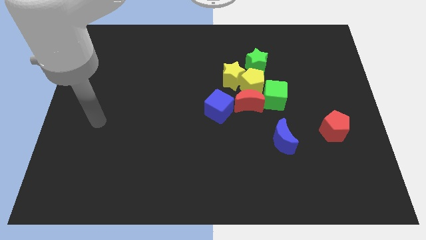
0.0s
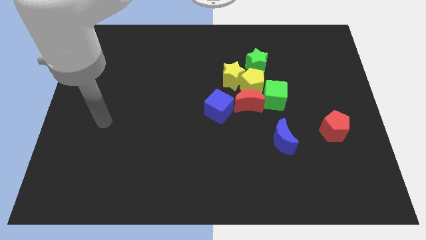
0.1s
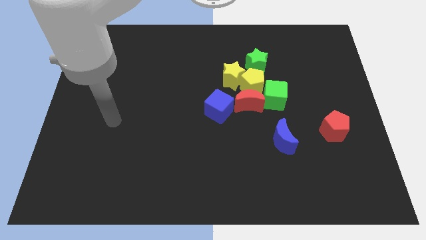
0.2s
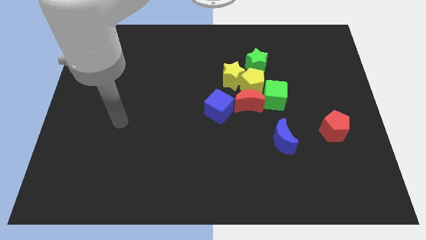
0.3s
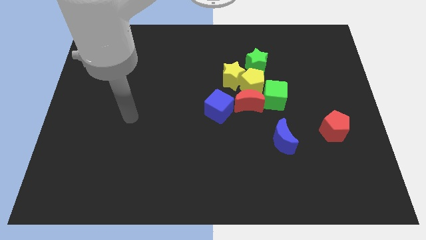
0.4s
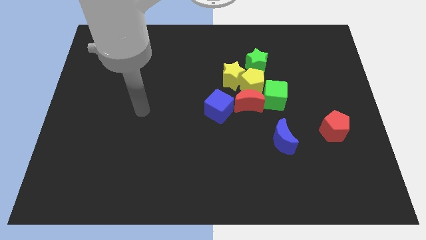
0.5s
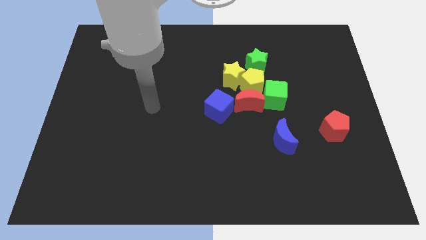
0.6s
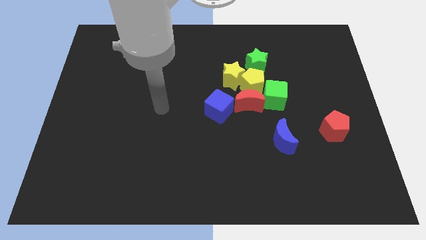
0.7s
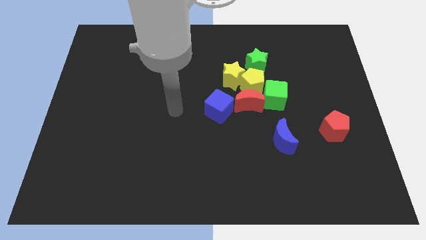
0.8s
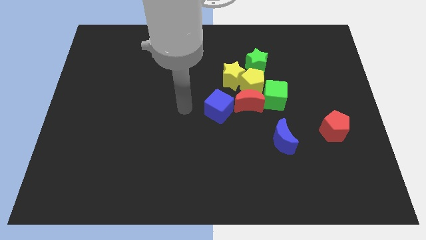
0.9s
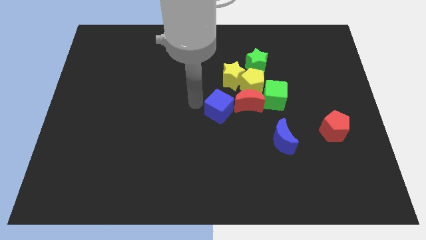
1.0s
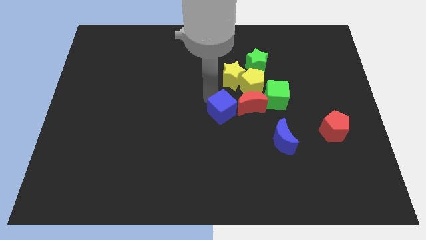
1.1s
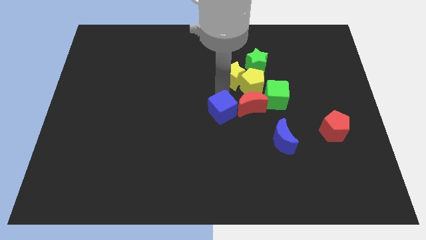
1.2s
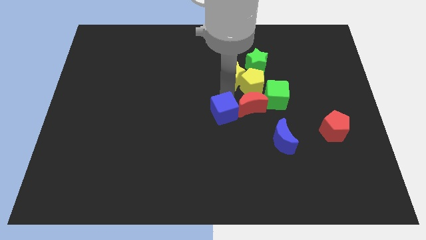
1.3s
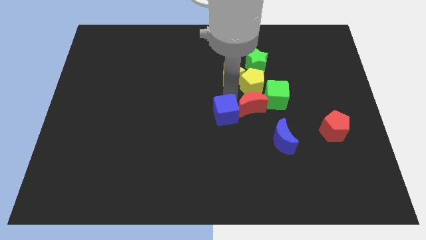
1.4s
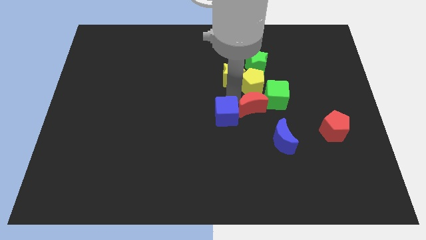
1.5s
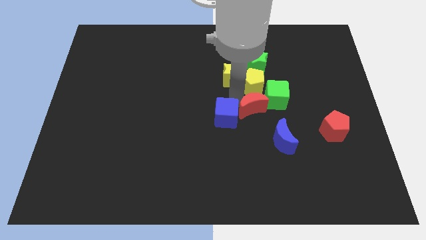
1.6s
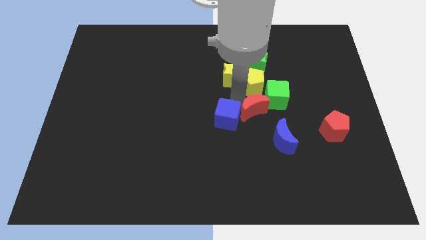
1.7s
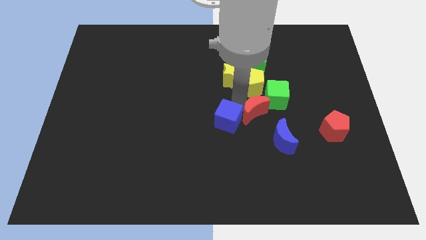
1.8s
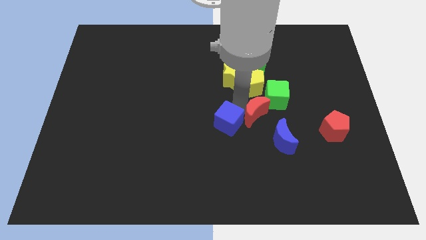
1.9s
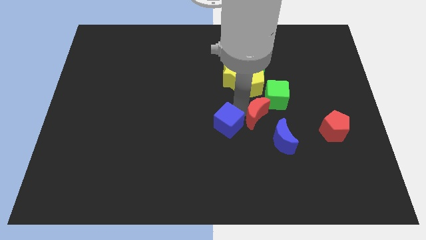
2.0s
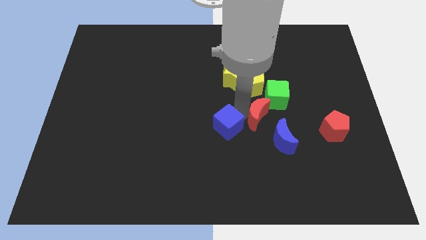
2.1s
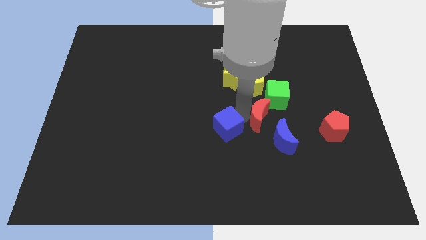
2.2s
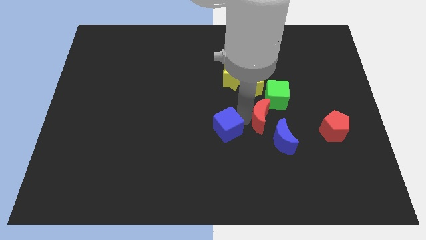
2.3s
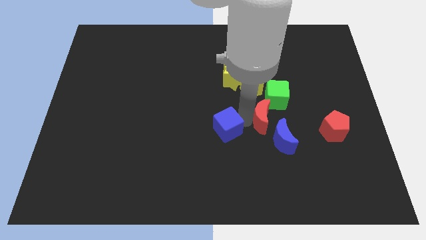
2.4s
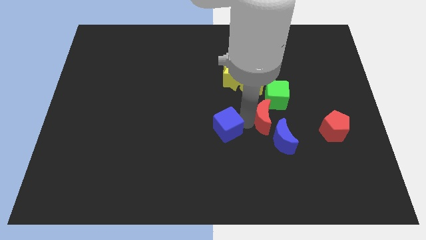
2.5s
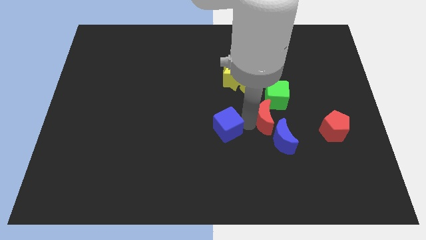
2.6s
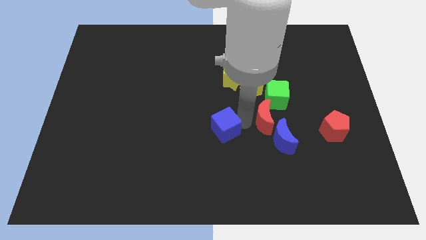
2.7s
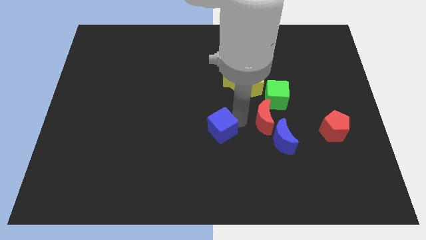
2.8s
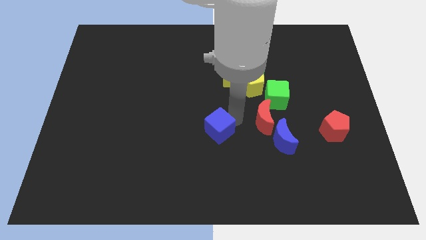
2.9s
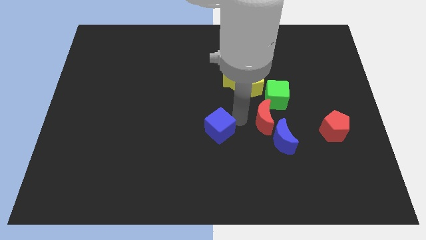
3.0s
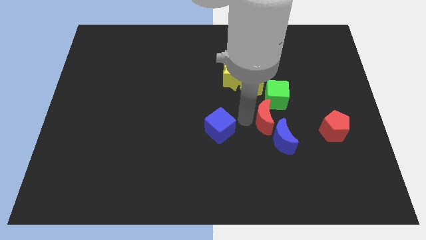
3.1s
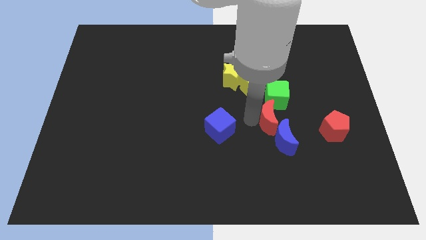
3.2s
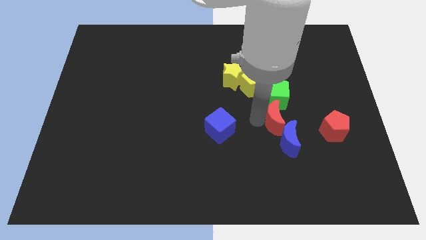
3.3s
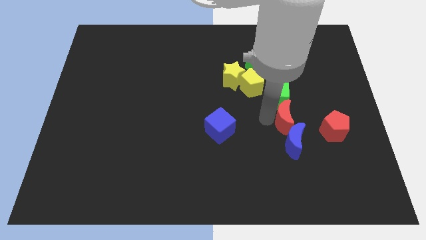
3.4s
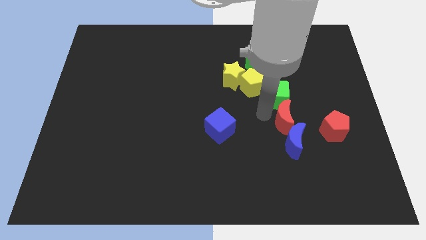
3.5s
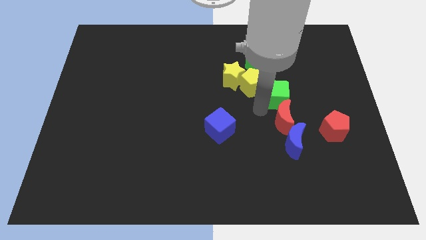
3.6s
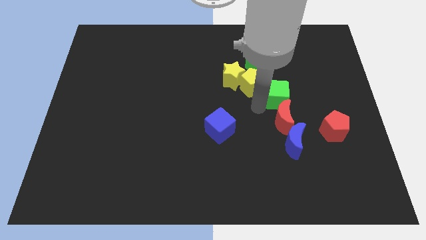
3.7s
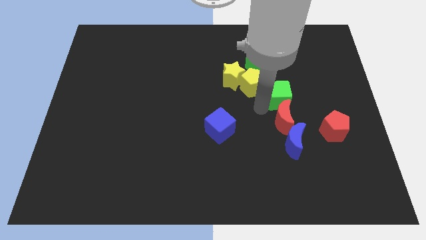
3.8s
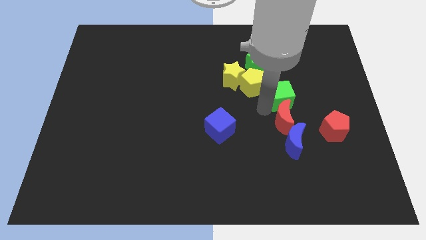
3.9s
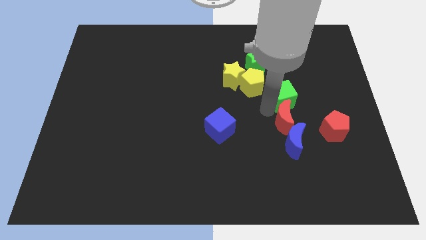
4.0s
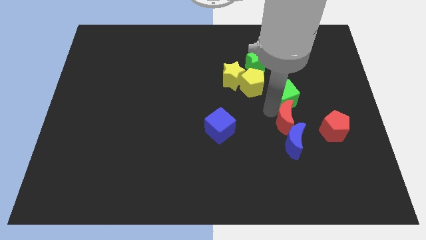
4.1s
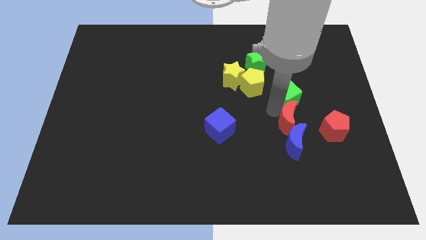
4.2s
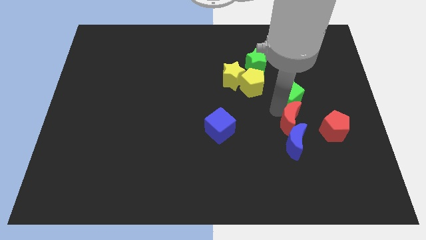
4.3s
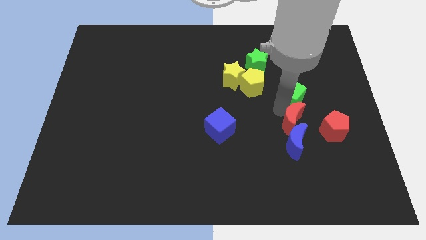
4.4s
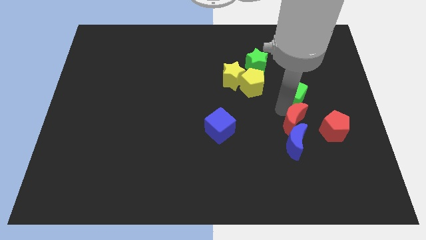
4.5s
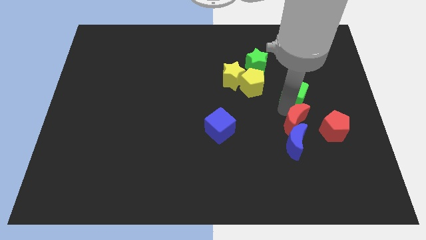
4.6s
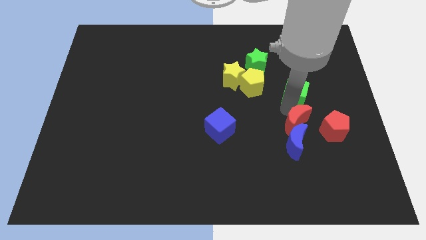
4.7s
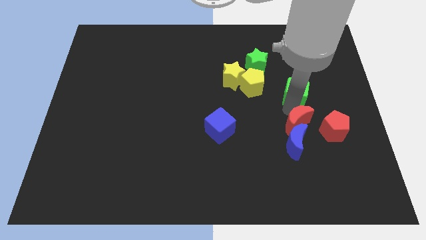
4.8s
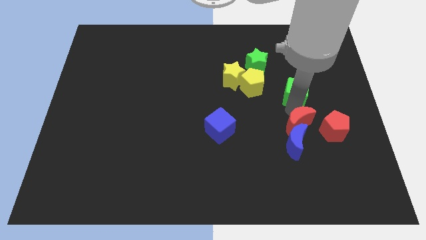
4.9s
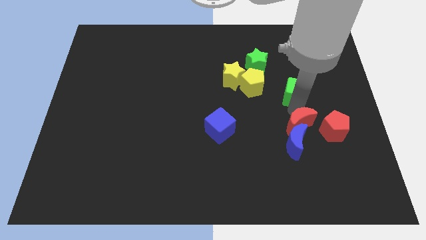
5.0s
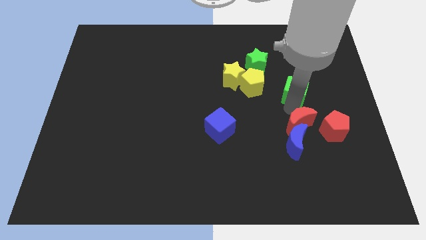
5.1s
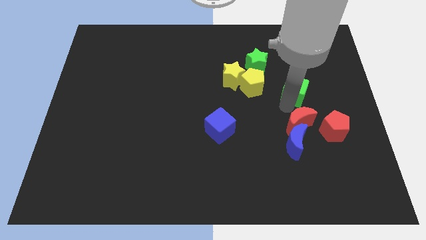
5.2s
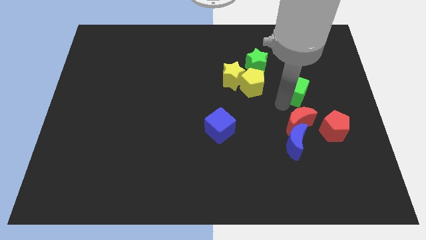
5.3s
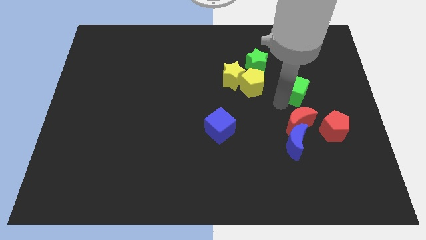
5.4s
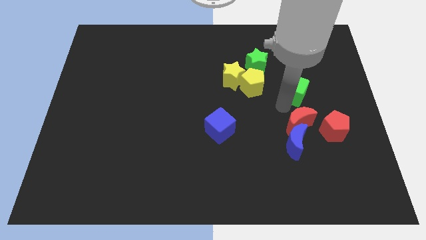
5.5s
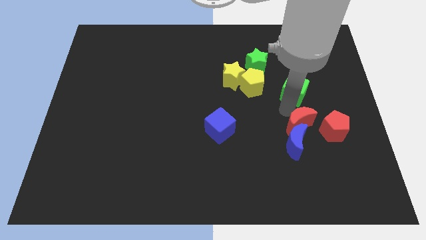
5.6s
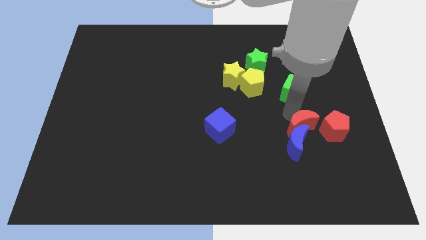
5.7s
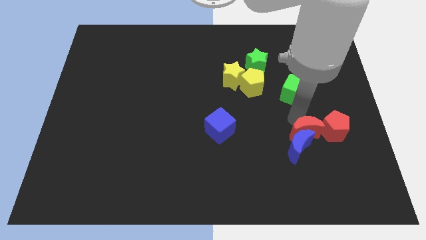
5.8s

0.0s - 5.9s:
move the red moon to the bottom left of the red pentagon

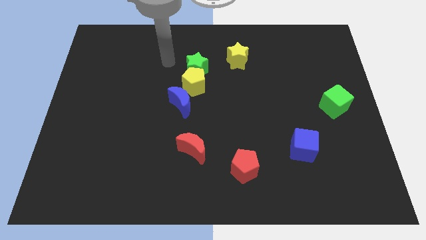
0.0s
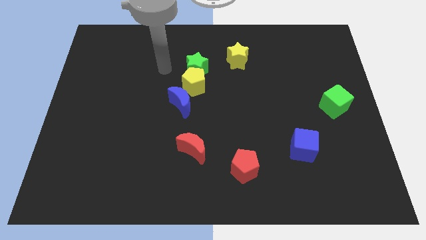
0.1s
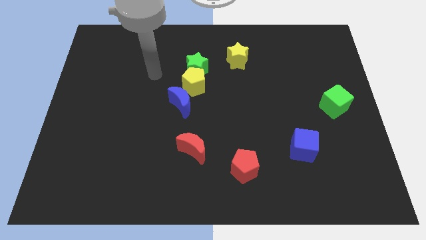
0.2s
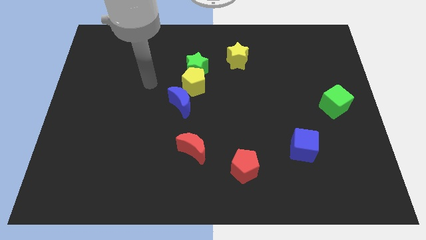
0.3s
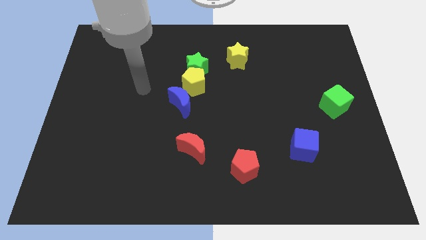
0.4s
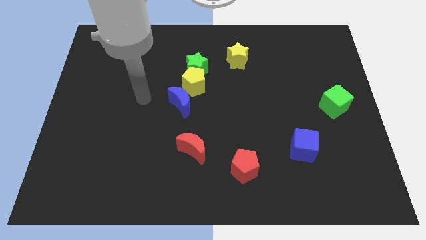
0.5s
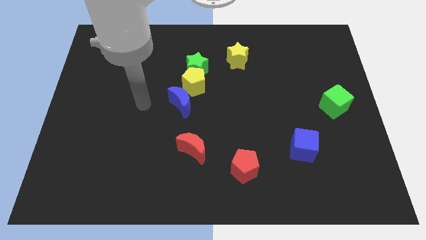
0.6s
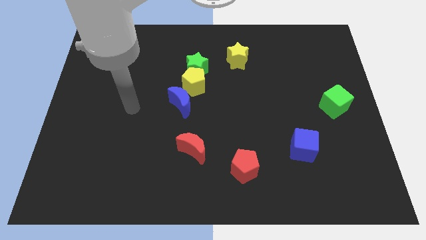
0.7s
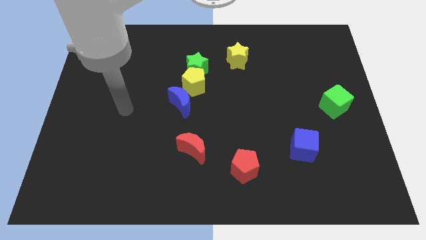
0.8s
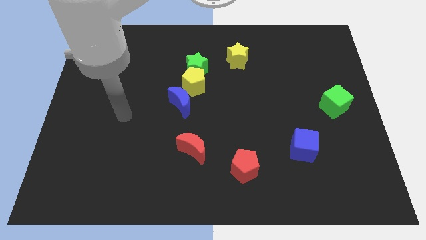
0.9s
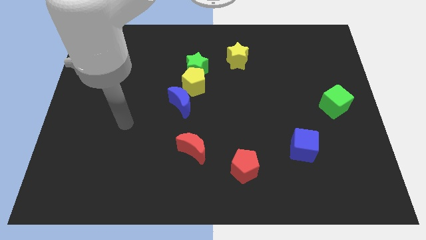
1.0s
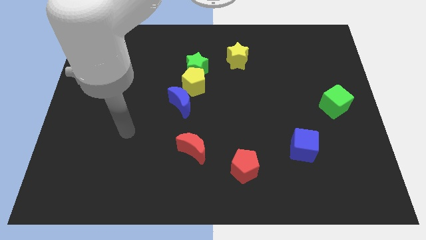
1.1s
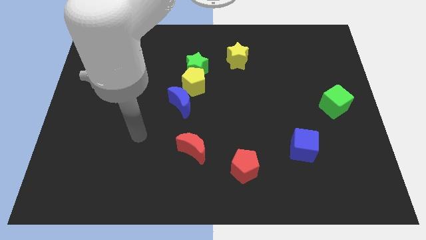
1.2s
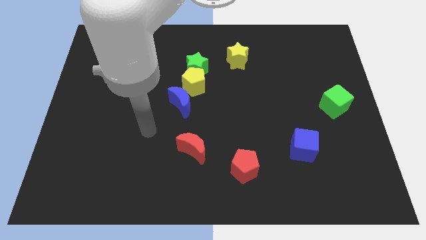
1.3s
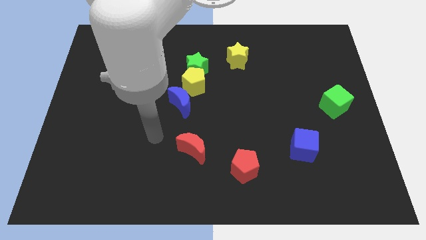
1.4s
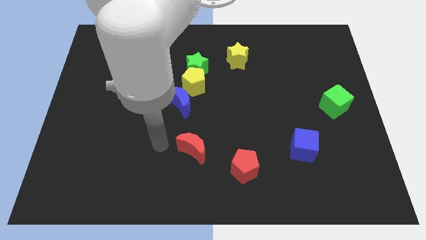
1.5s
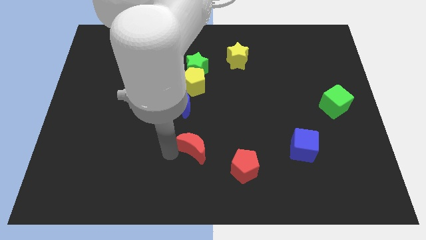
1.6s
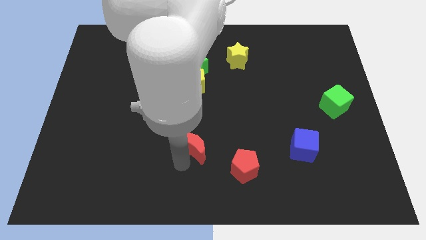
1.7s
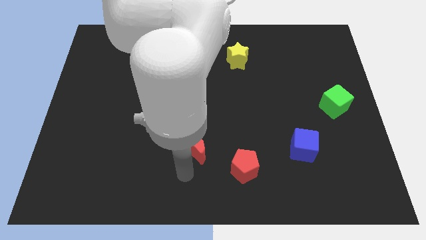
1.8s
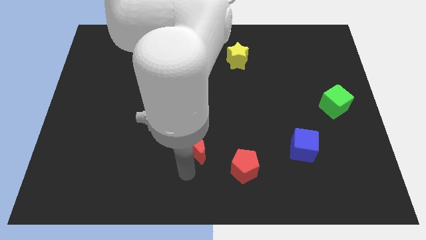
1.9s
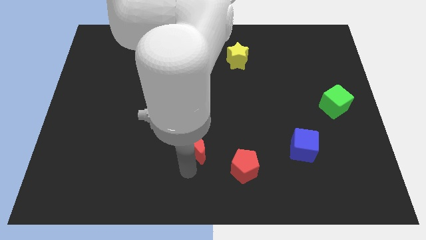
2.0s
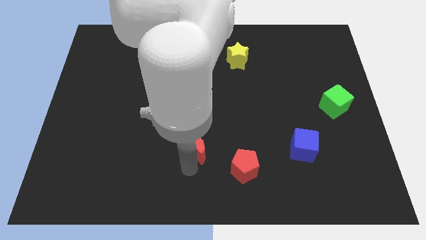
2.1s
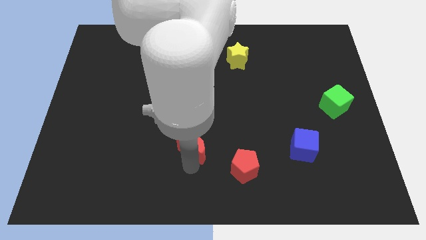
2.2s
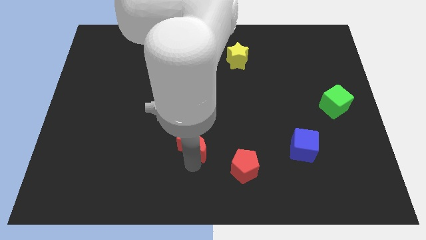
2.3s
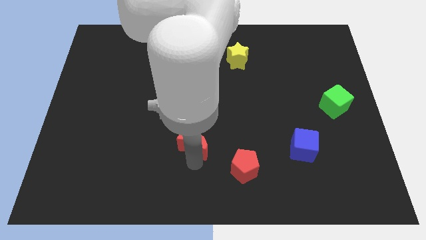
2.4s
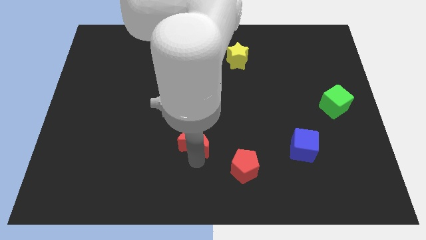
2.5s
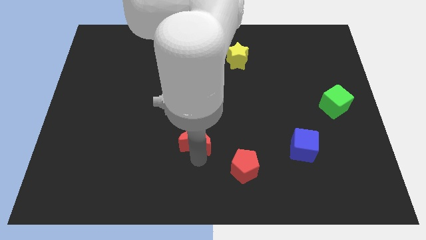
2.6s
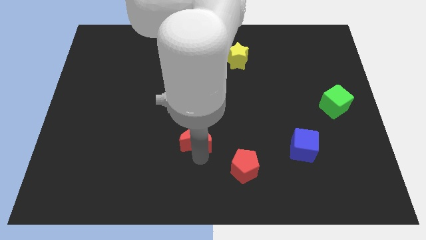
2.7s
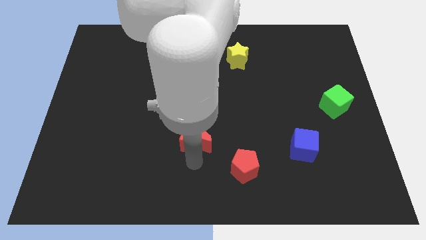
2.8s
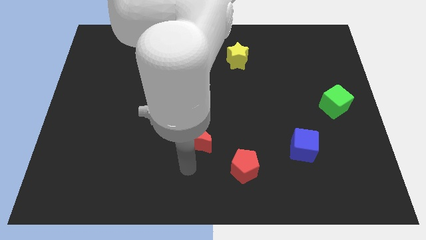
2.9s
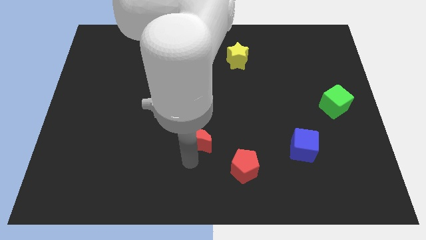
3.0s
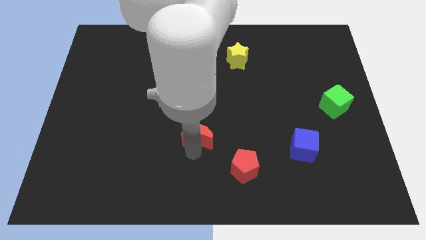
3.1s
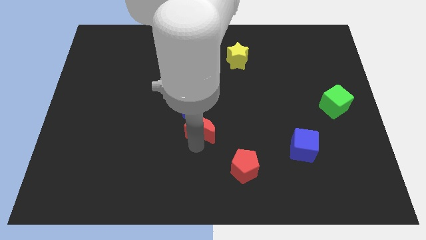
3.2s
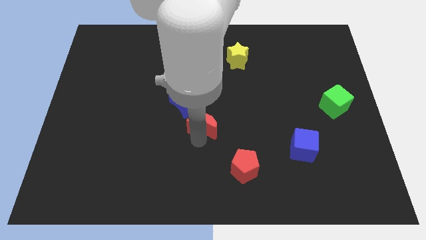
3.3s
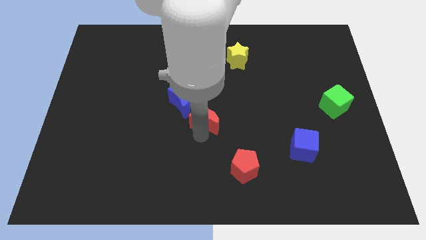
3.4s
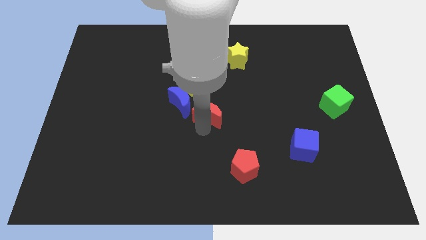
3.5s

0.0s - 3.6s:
push the red moon diagonally down and to the right of the yellow pentagon
